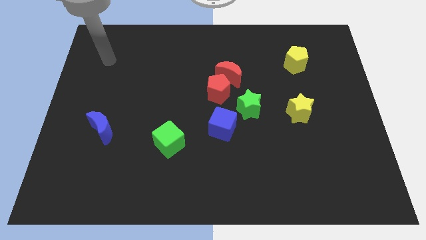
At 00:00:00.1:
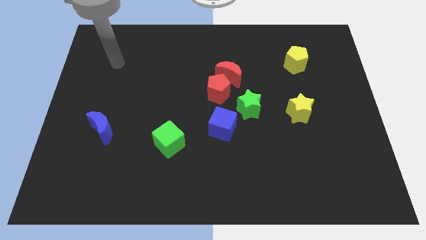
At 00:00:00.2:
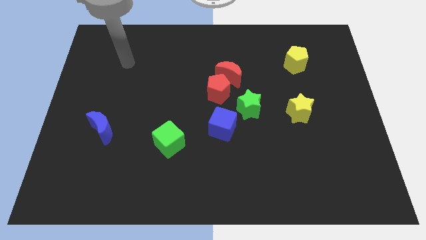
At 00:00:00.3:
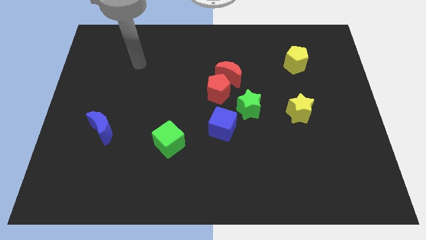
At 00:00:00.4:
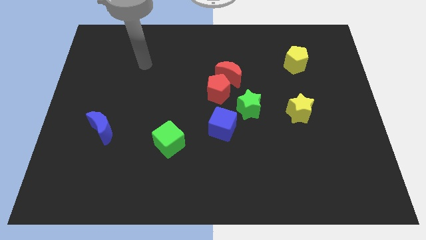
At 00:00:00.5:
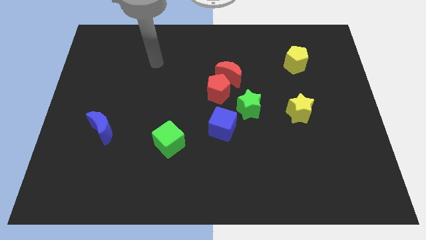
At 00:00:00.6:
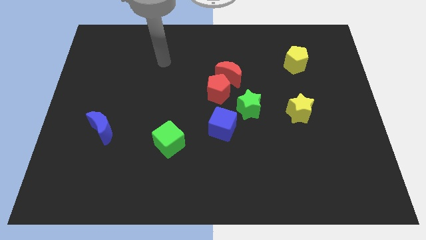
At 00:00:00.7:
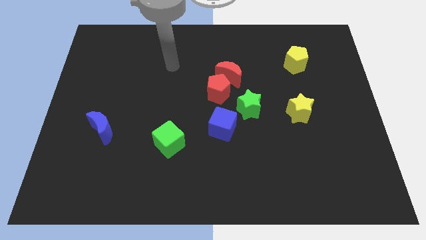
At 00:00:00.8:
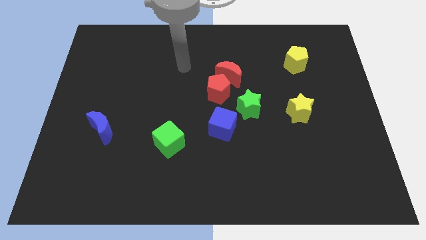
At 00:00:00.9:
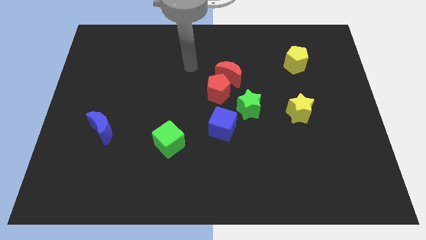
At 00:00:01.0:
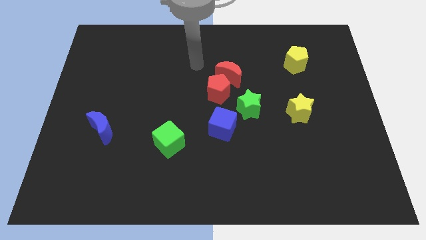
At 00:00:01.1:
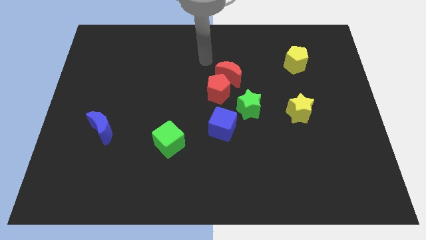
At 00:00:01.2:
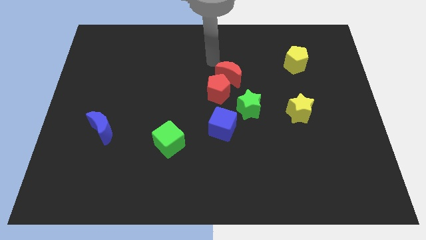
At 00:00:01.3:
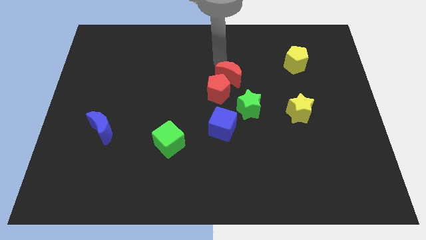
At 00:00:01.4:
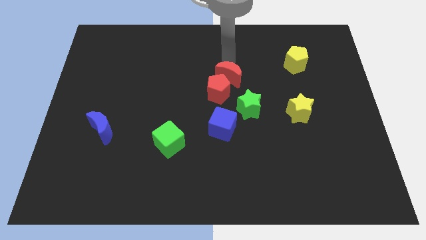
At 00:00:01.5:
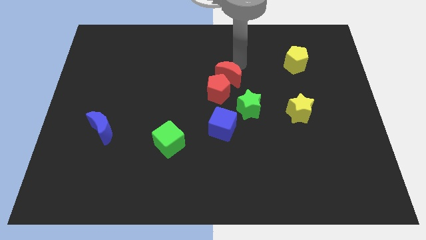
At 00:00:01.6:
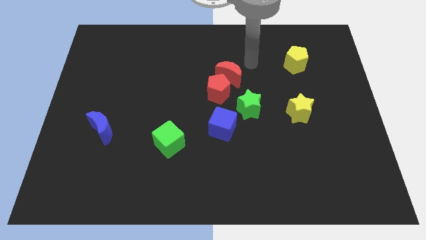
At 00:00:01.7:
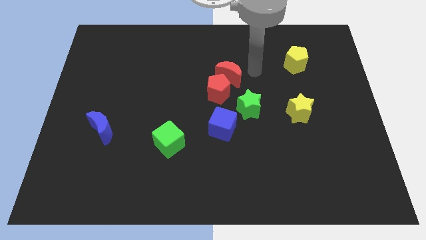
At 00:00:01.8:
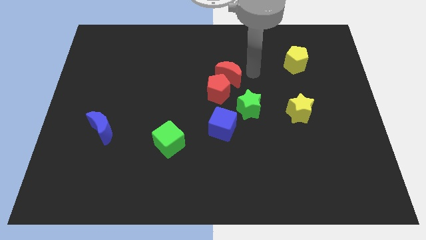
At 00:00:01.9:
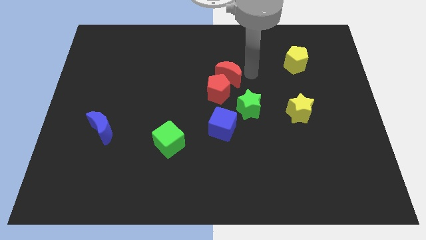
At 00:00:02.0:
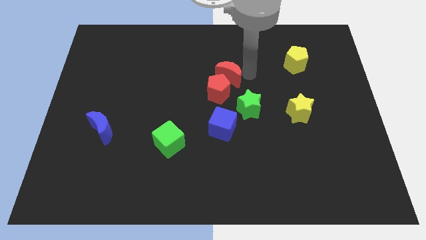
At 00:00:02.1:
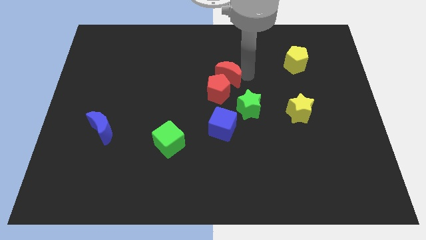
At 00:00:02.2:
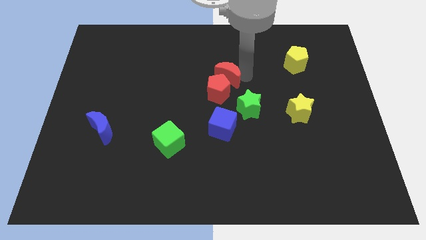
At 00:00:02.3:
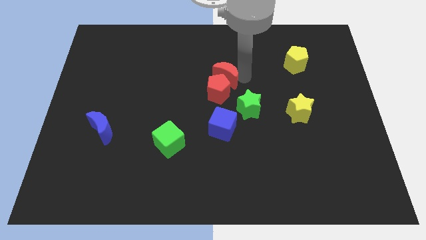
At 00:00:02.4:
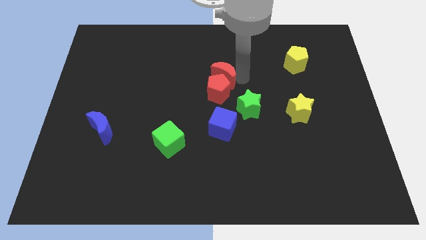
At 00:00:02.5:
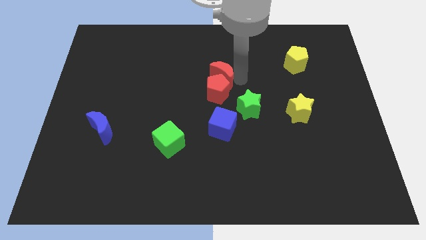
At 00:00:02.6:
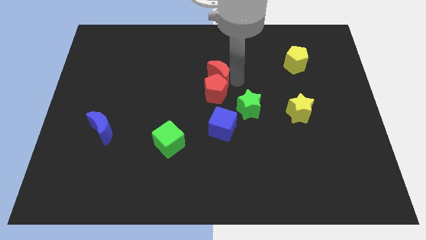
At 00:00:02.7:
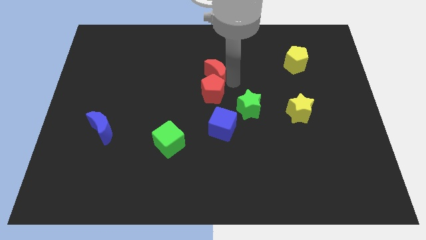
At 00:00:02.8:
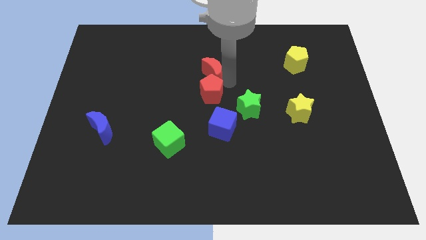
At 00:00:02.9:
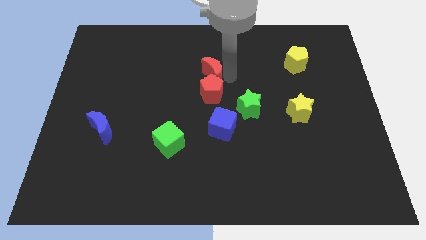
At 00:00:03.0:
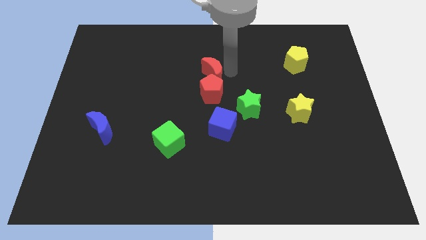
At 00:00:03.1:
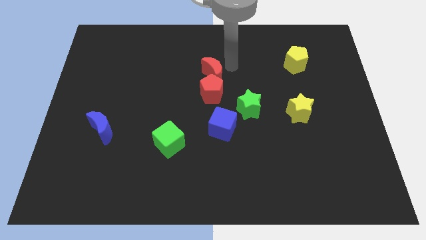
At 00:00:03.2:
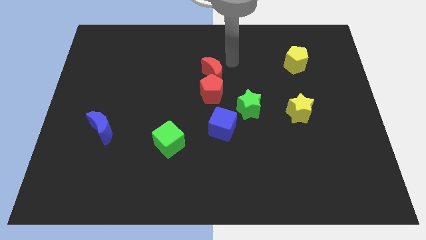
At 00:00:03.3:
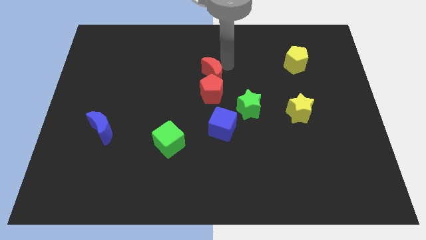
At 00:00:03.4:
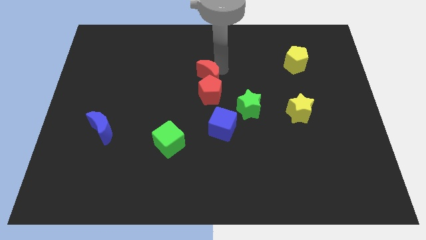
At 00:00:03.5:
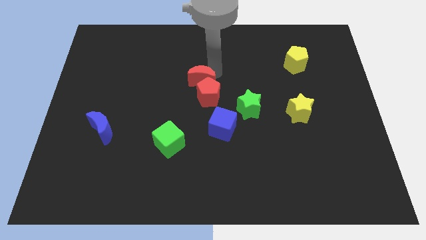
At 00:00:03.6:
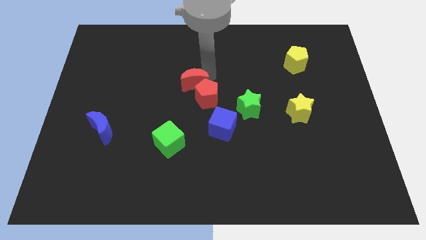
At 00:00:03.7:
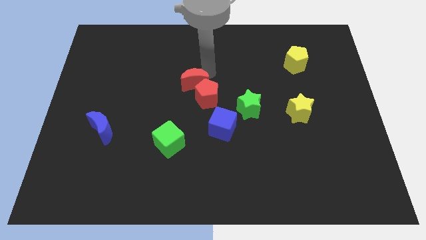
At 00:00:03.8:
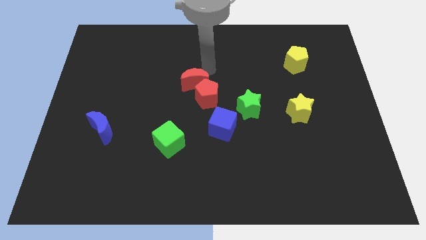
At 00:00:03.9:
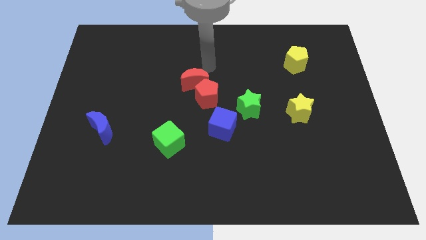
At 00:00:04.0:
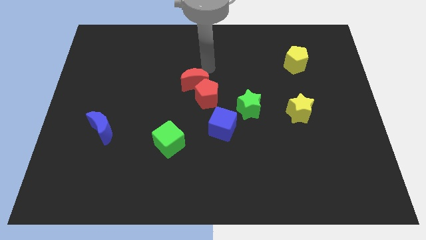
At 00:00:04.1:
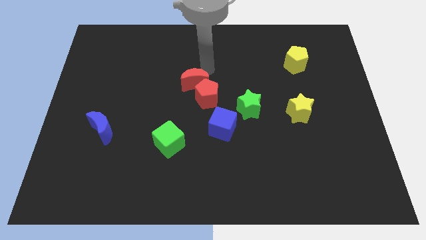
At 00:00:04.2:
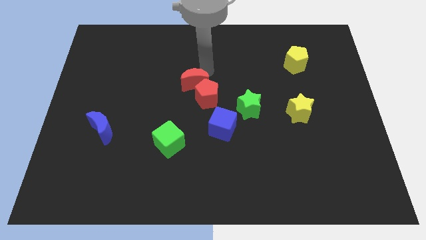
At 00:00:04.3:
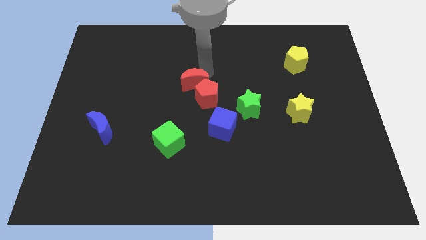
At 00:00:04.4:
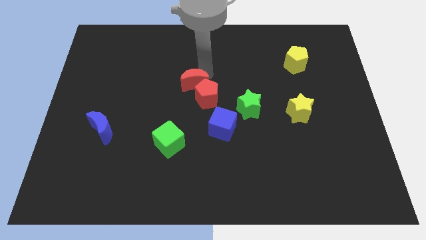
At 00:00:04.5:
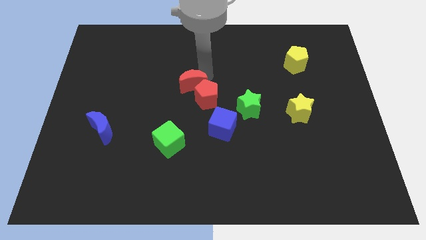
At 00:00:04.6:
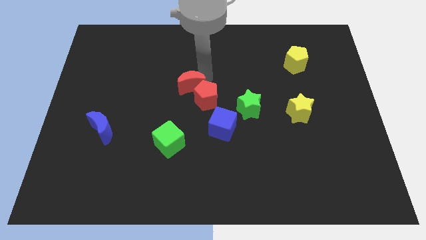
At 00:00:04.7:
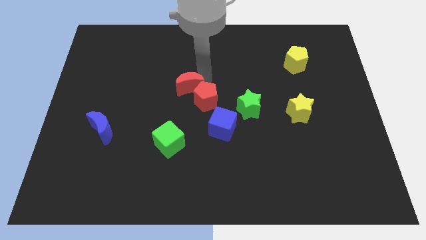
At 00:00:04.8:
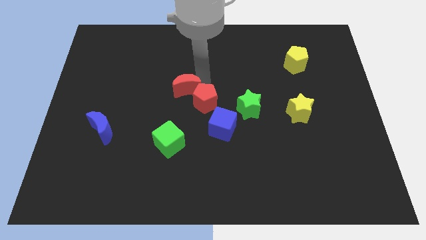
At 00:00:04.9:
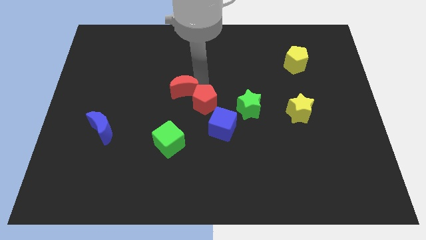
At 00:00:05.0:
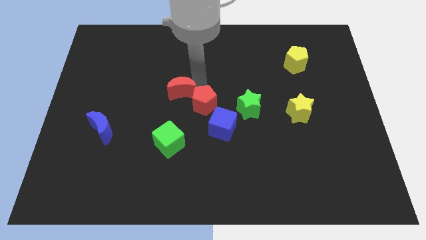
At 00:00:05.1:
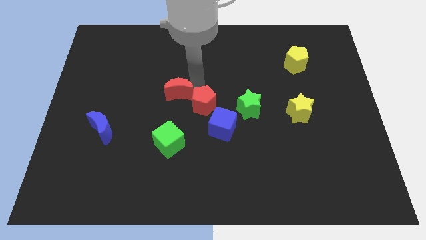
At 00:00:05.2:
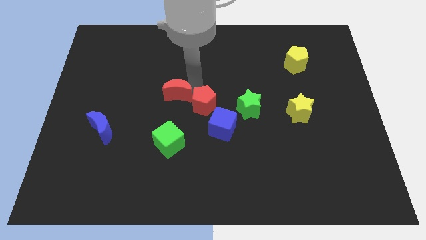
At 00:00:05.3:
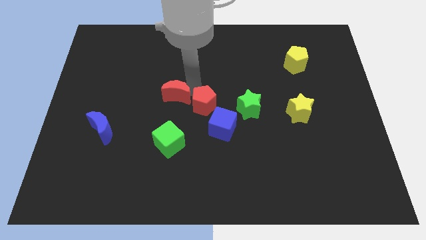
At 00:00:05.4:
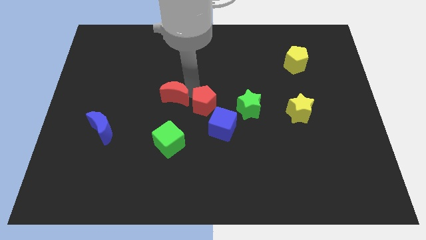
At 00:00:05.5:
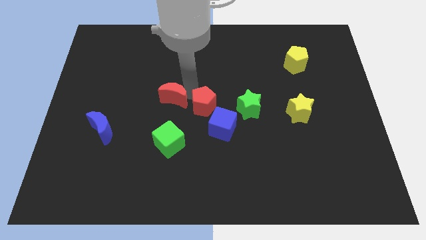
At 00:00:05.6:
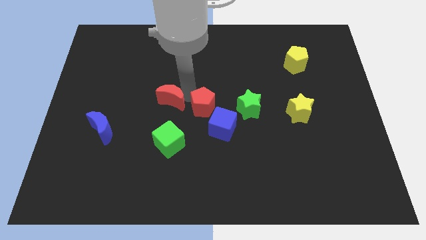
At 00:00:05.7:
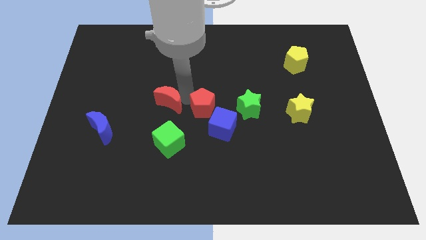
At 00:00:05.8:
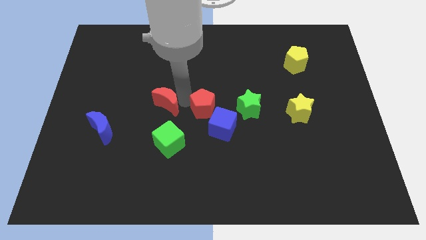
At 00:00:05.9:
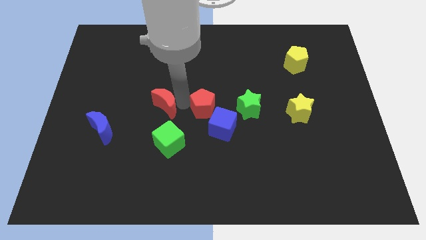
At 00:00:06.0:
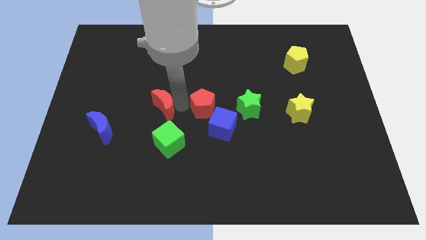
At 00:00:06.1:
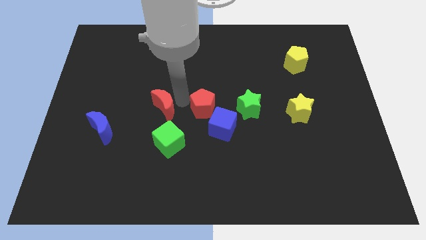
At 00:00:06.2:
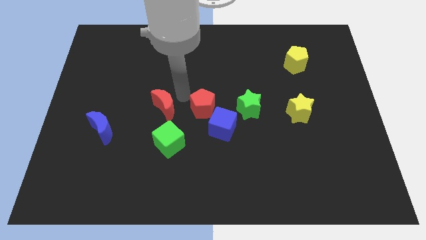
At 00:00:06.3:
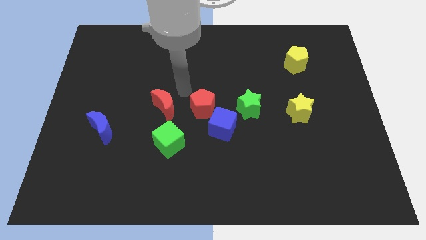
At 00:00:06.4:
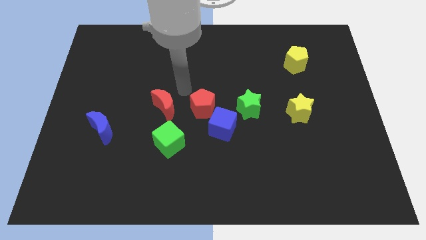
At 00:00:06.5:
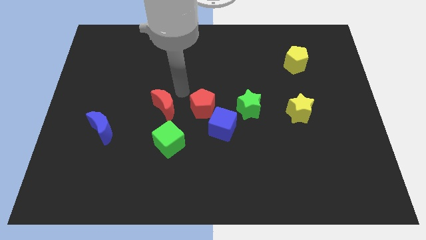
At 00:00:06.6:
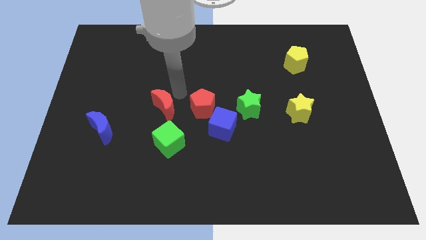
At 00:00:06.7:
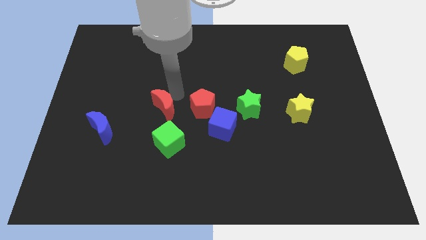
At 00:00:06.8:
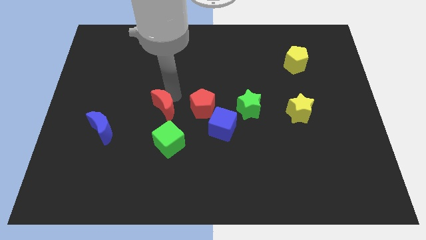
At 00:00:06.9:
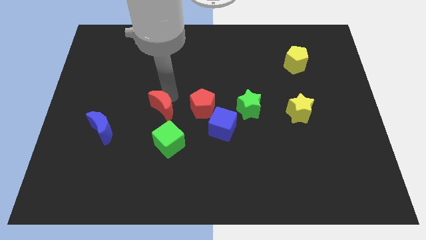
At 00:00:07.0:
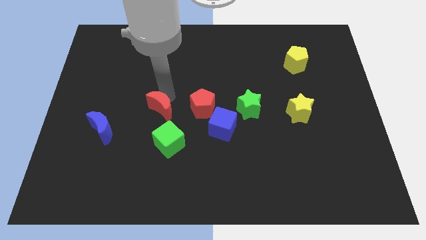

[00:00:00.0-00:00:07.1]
put the red moon to the top left of the green cube
